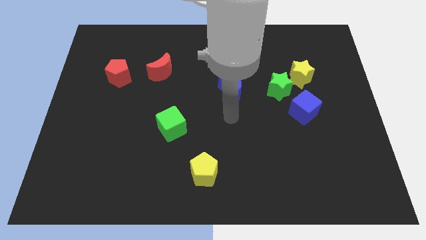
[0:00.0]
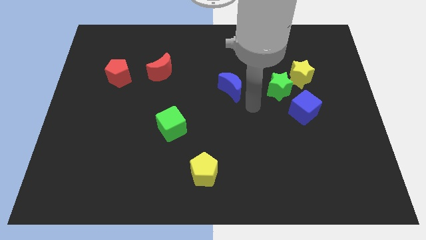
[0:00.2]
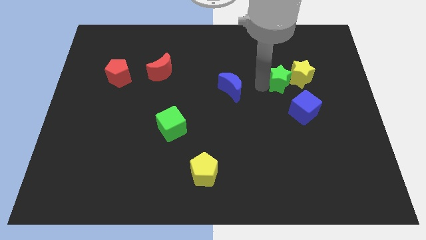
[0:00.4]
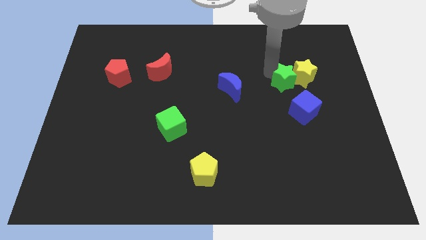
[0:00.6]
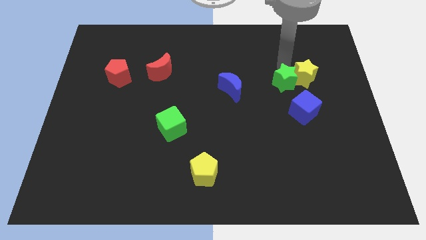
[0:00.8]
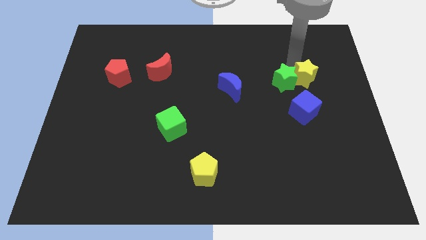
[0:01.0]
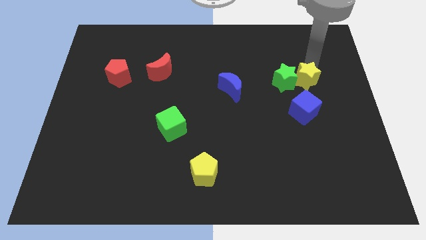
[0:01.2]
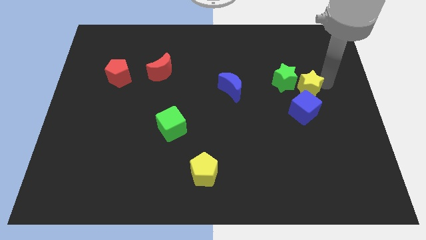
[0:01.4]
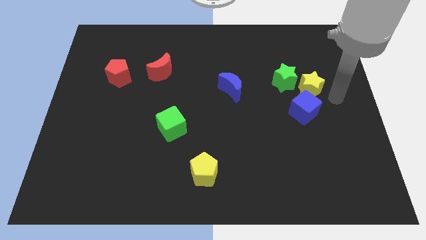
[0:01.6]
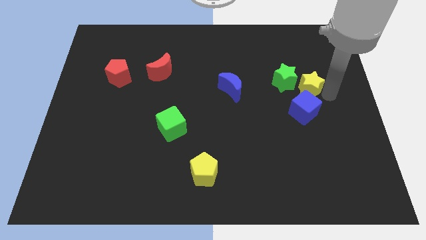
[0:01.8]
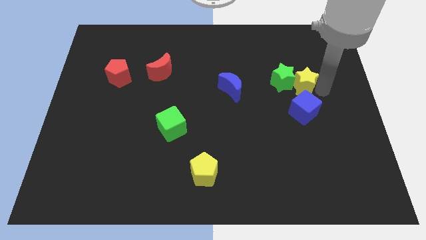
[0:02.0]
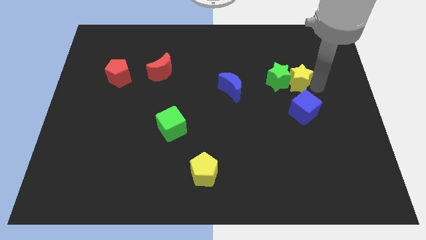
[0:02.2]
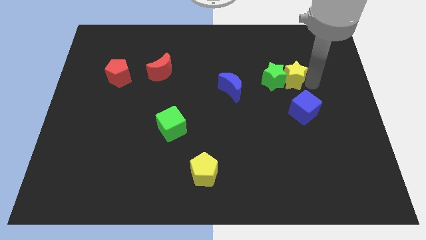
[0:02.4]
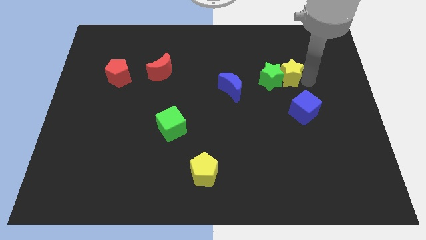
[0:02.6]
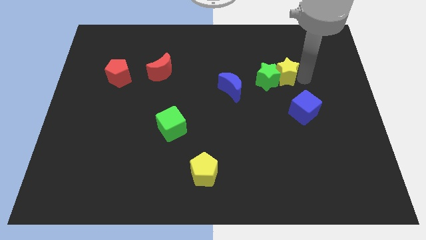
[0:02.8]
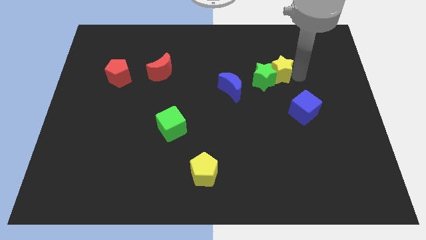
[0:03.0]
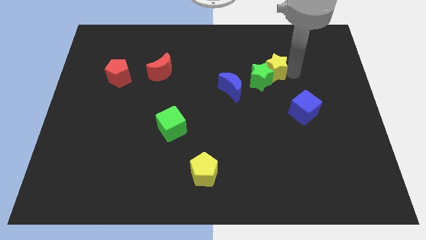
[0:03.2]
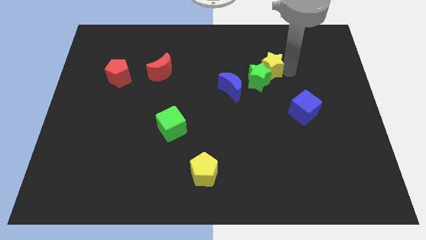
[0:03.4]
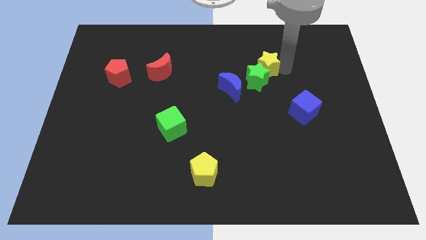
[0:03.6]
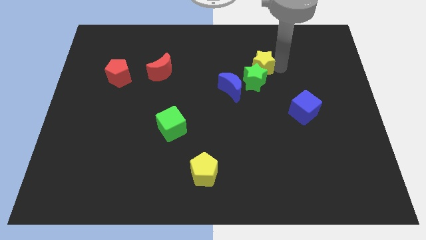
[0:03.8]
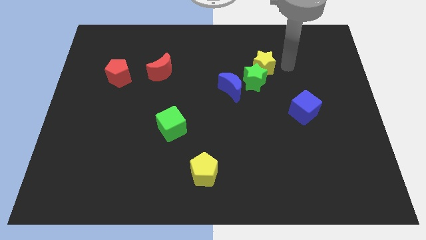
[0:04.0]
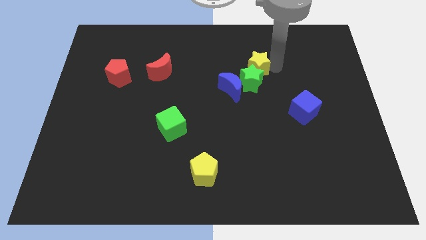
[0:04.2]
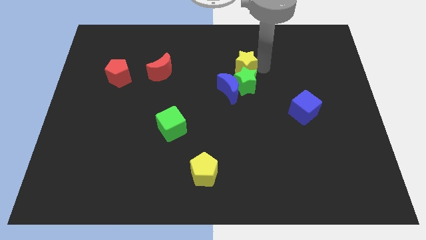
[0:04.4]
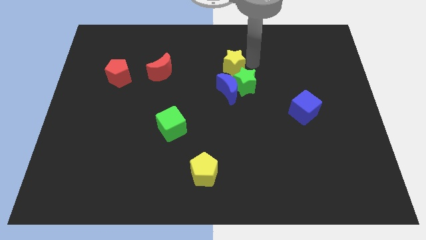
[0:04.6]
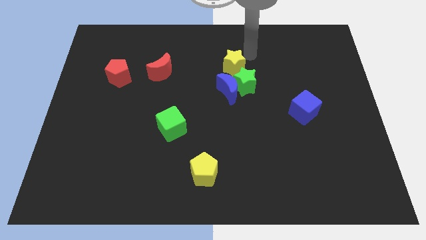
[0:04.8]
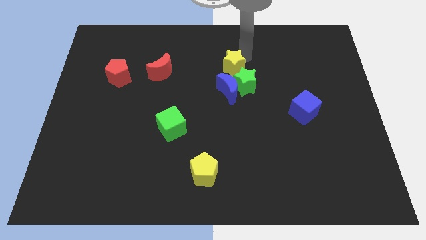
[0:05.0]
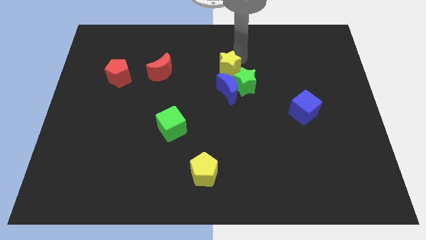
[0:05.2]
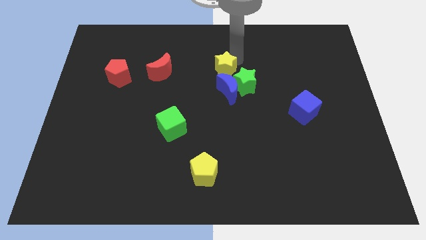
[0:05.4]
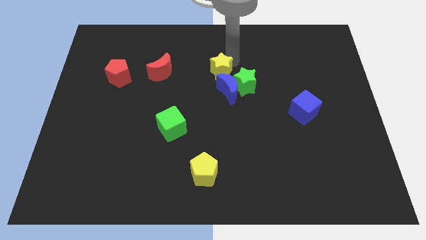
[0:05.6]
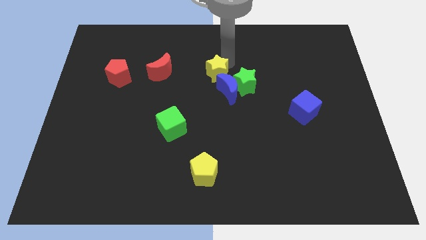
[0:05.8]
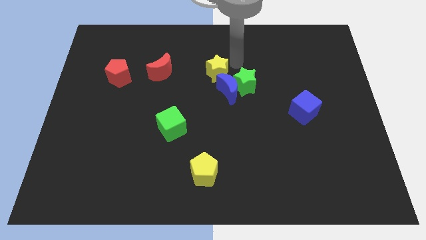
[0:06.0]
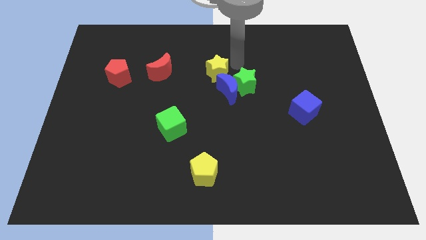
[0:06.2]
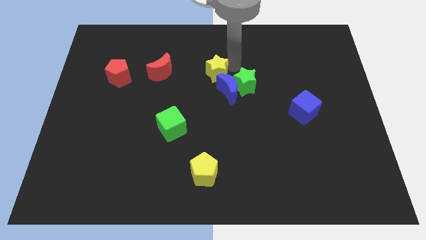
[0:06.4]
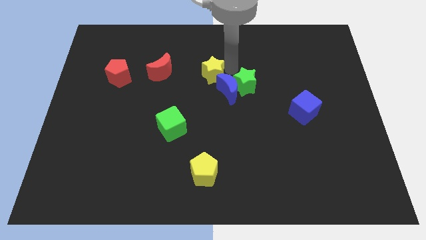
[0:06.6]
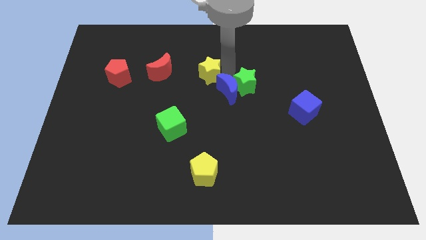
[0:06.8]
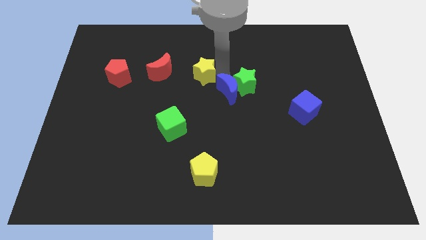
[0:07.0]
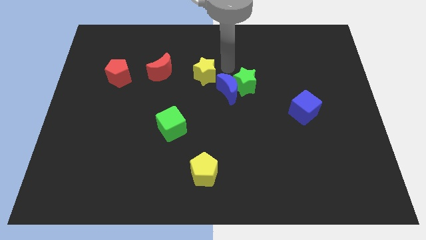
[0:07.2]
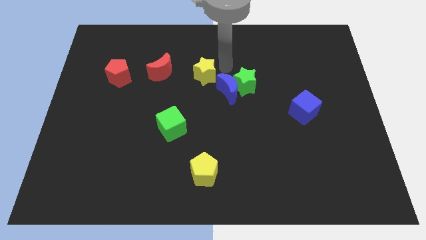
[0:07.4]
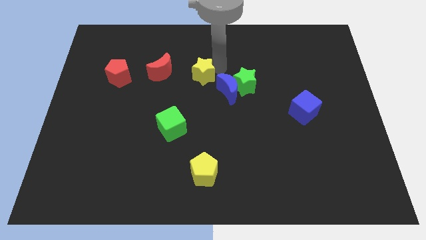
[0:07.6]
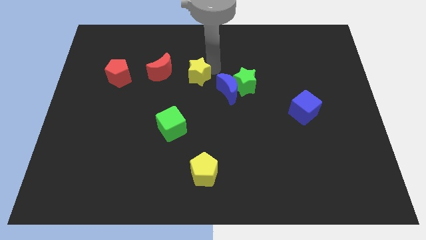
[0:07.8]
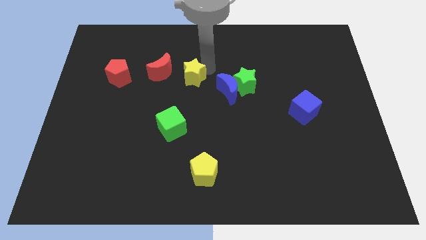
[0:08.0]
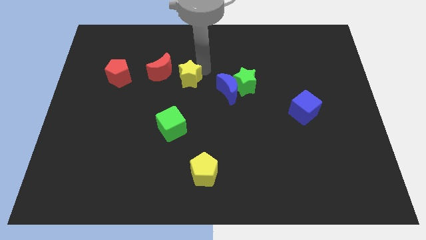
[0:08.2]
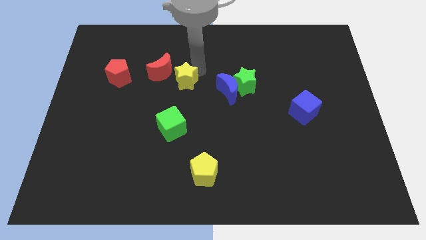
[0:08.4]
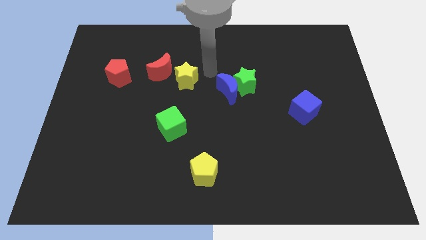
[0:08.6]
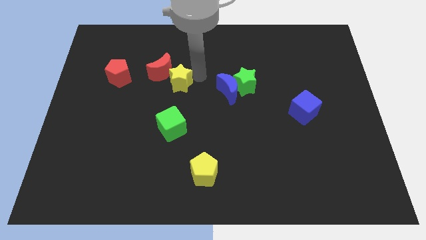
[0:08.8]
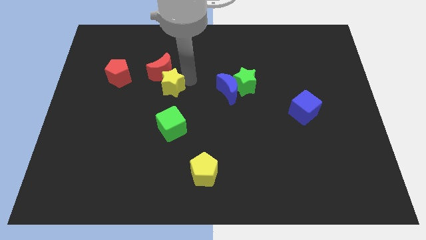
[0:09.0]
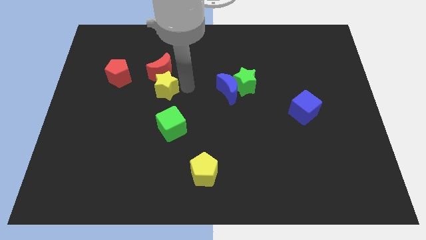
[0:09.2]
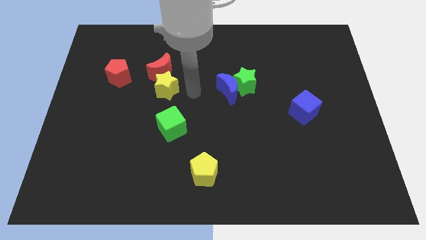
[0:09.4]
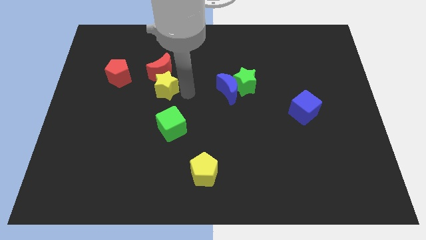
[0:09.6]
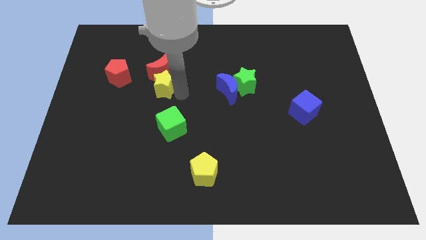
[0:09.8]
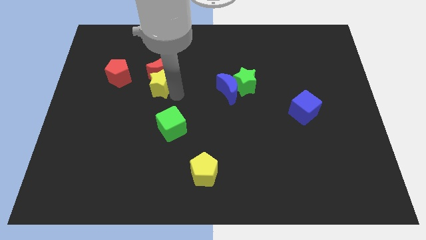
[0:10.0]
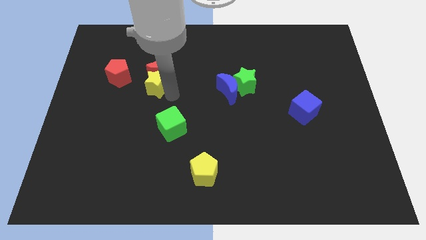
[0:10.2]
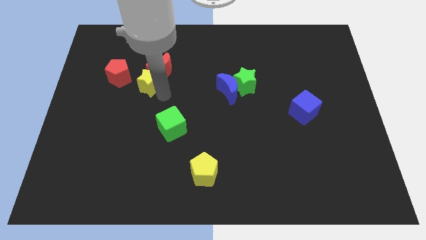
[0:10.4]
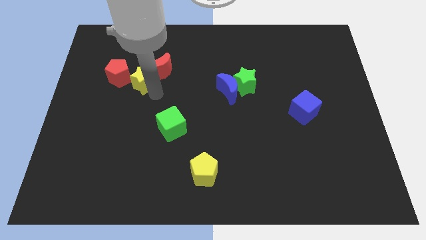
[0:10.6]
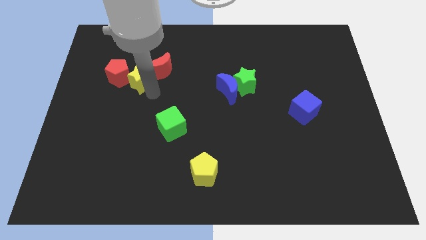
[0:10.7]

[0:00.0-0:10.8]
slide the yellow star next to the red pentagon

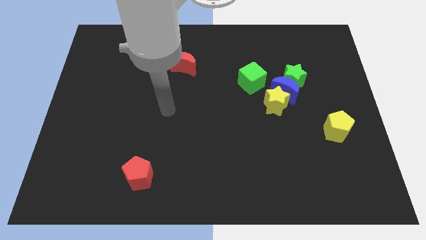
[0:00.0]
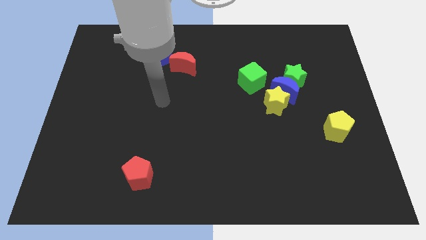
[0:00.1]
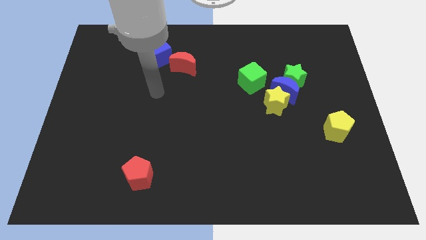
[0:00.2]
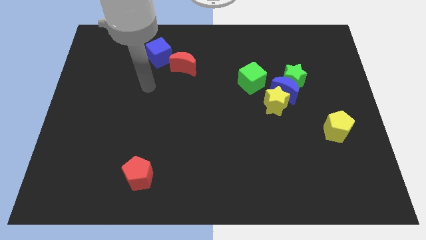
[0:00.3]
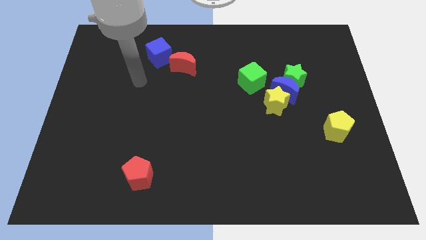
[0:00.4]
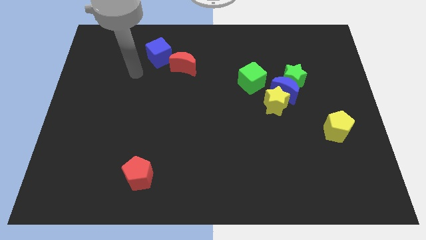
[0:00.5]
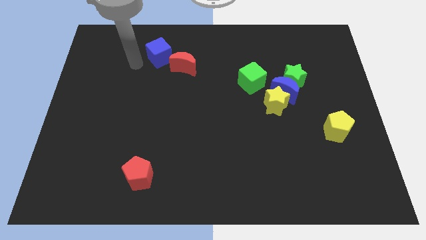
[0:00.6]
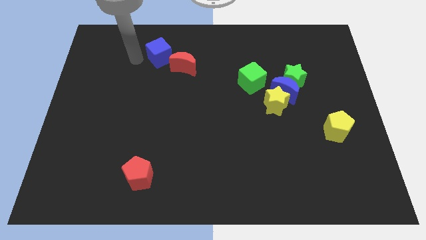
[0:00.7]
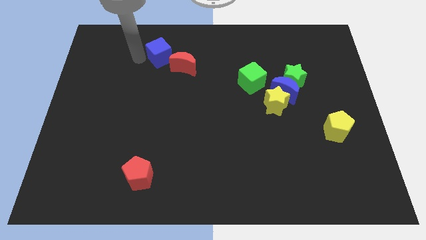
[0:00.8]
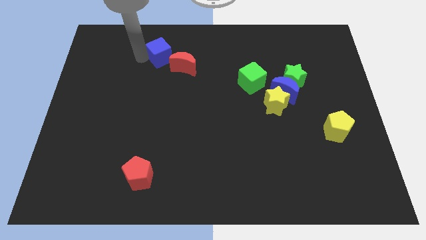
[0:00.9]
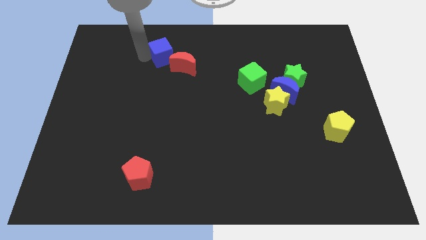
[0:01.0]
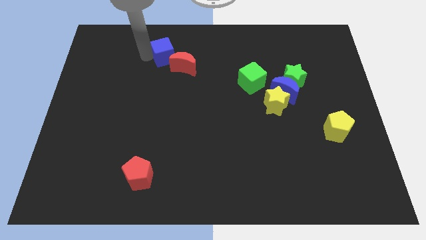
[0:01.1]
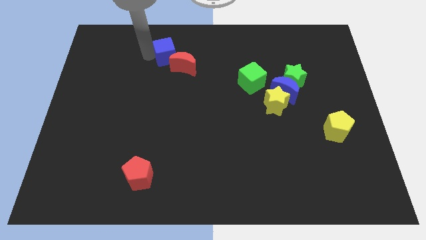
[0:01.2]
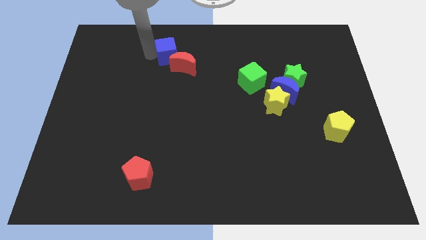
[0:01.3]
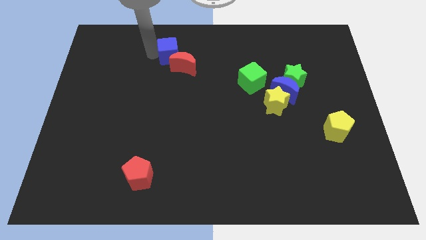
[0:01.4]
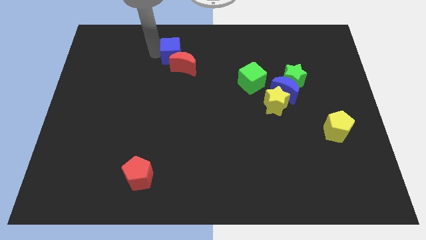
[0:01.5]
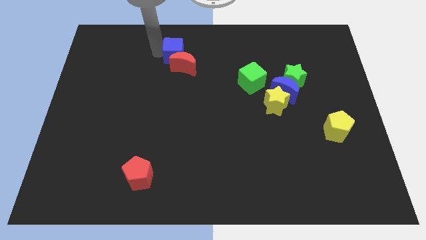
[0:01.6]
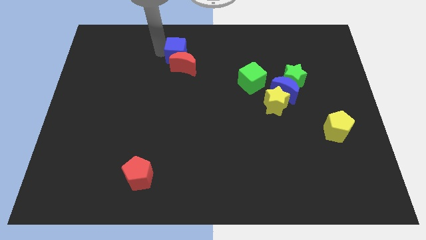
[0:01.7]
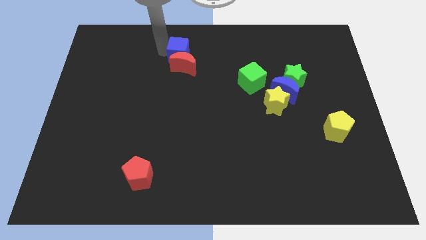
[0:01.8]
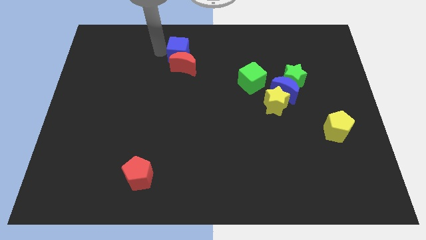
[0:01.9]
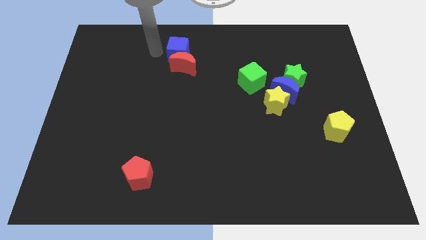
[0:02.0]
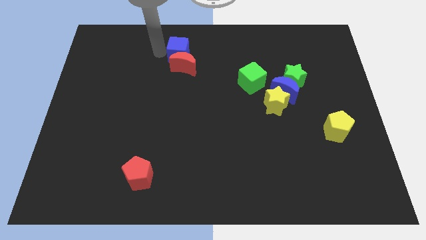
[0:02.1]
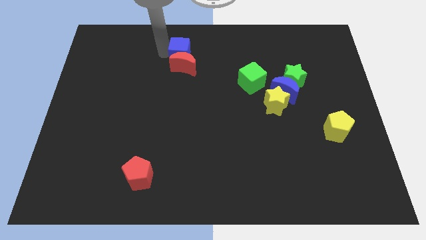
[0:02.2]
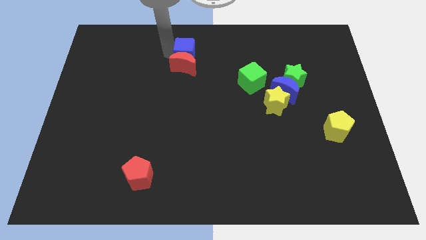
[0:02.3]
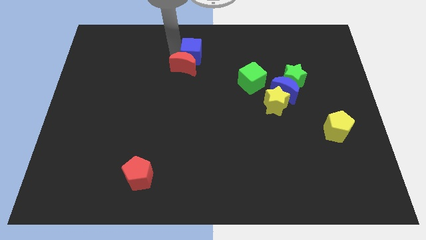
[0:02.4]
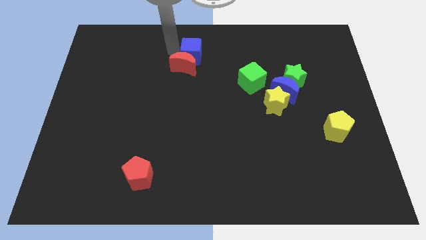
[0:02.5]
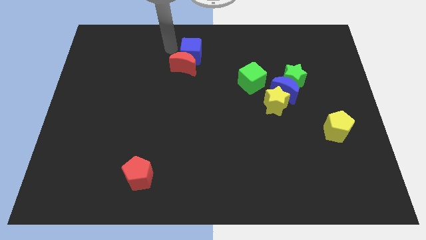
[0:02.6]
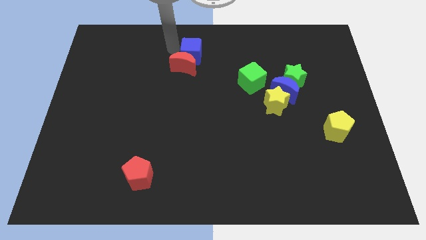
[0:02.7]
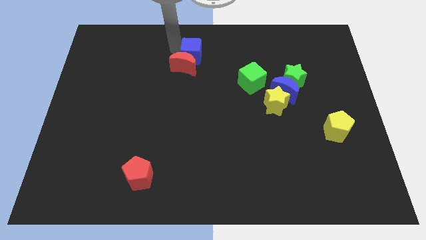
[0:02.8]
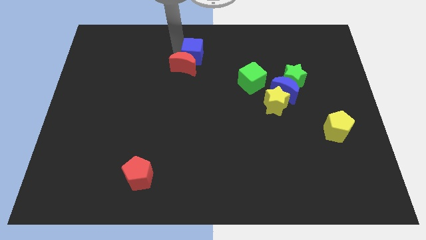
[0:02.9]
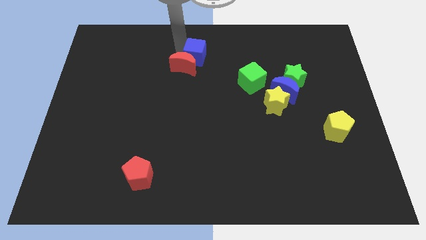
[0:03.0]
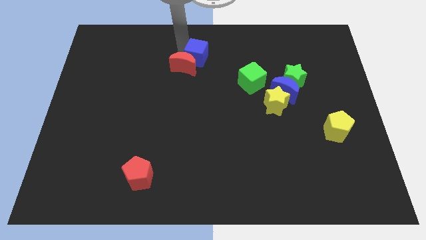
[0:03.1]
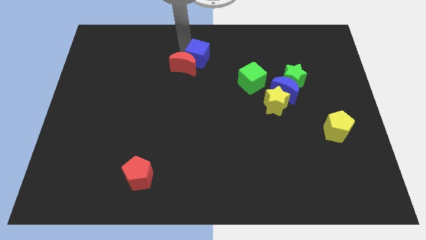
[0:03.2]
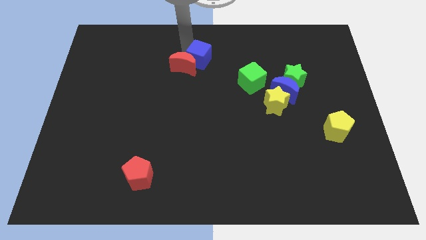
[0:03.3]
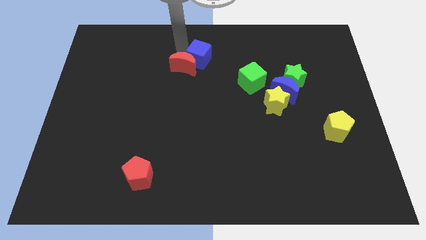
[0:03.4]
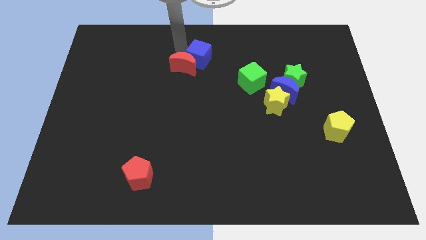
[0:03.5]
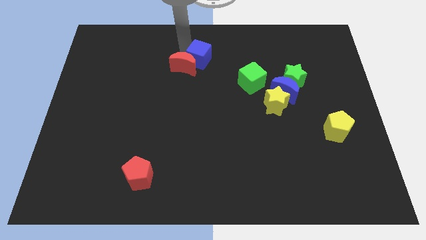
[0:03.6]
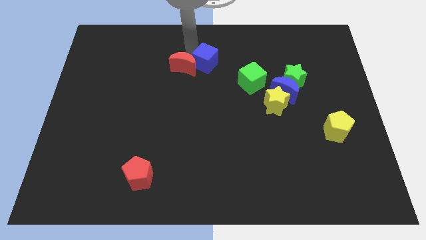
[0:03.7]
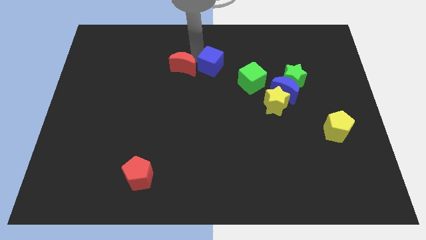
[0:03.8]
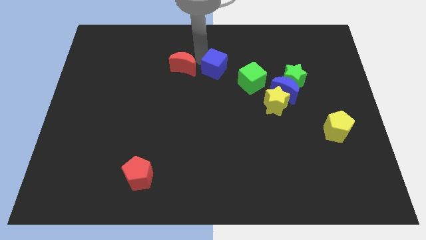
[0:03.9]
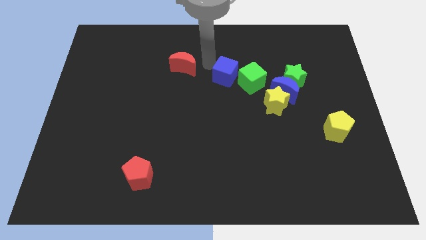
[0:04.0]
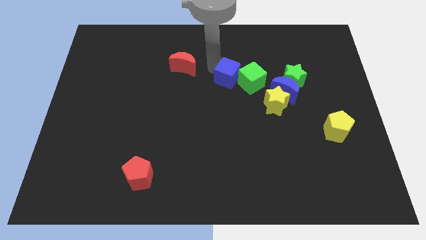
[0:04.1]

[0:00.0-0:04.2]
move the blue cube close to the green cube
